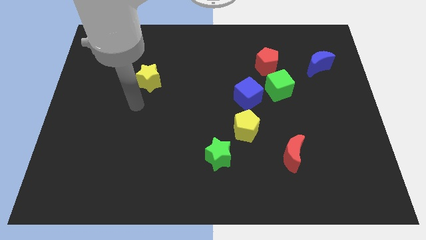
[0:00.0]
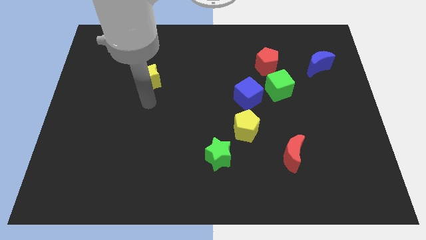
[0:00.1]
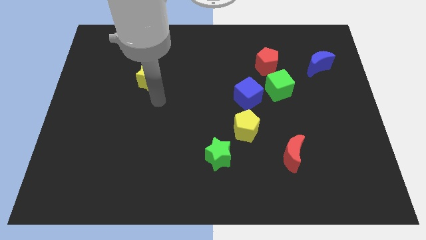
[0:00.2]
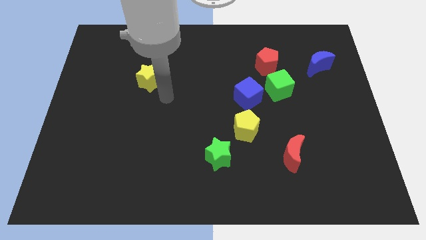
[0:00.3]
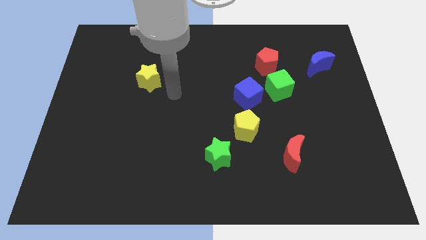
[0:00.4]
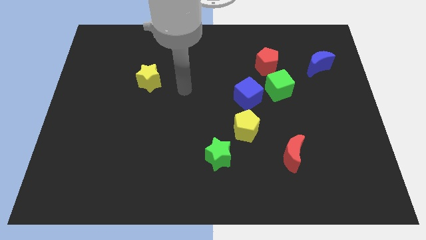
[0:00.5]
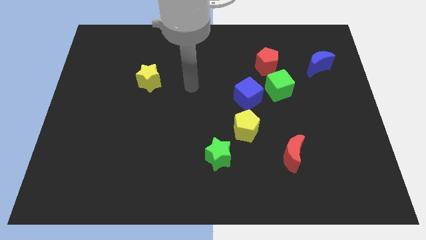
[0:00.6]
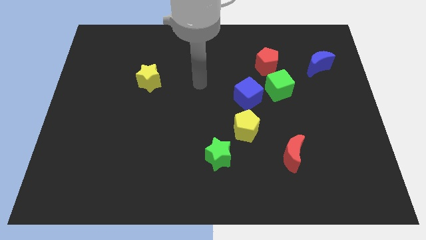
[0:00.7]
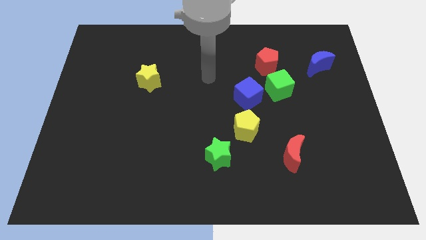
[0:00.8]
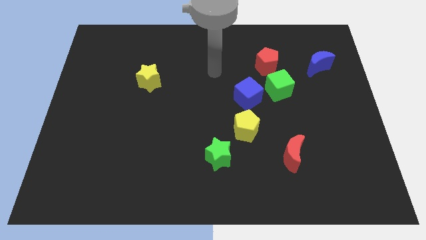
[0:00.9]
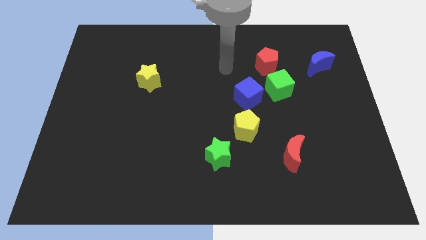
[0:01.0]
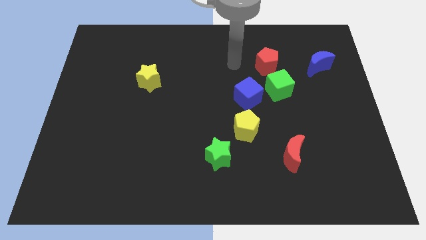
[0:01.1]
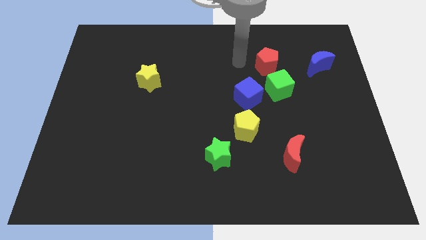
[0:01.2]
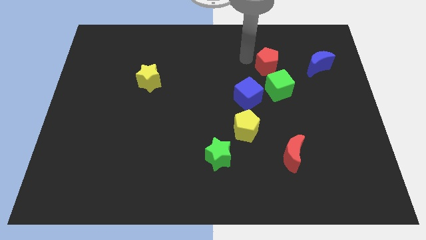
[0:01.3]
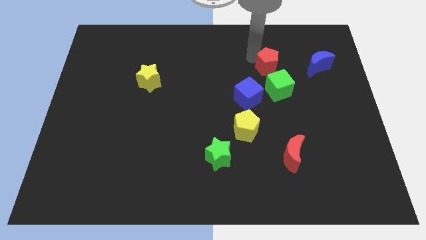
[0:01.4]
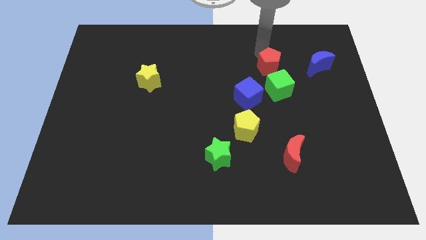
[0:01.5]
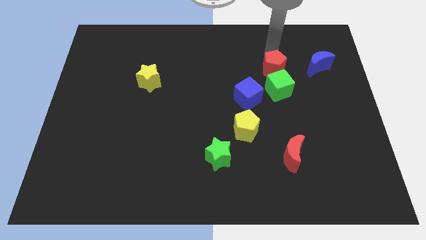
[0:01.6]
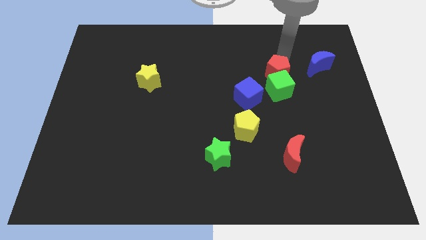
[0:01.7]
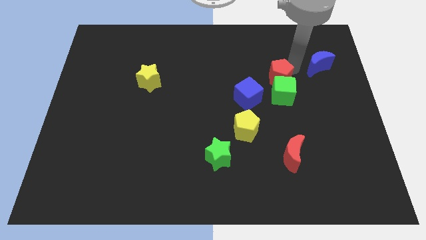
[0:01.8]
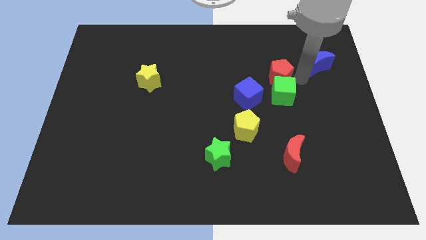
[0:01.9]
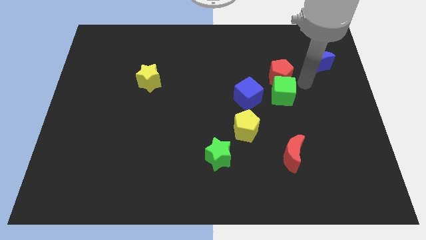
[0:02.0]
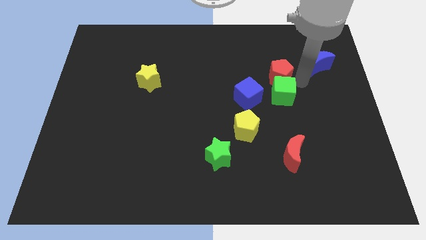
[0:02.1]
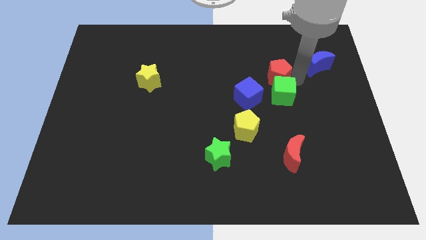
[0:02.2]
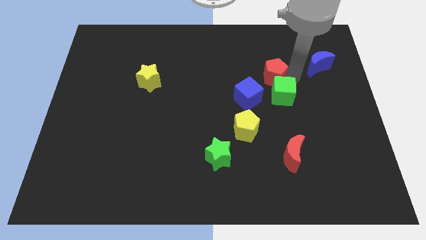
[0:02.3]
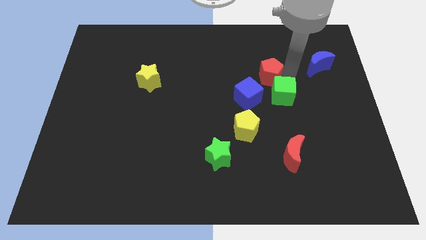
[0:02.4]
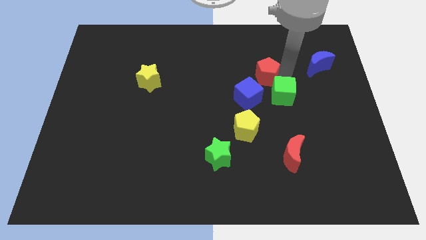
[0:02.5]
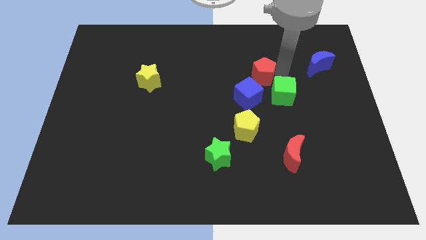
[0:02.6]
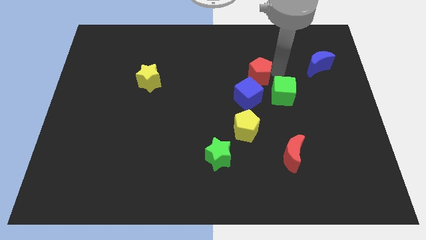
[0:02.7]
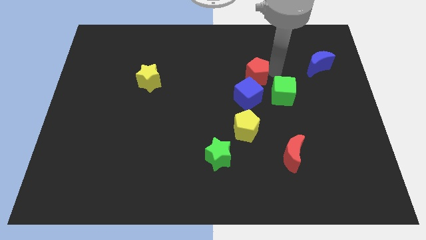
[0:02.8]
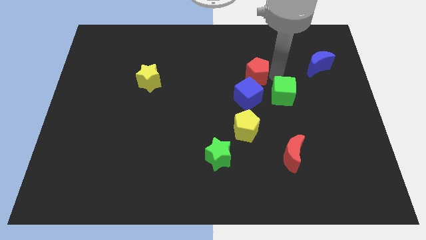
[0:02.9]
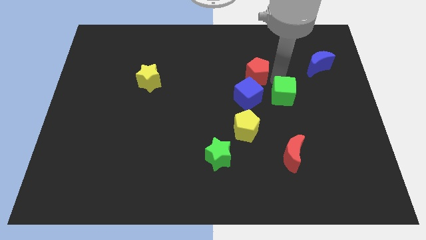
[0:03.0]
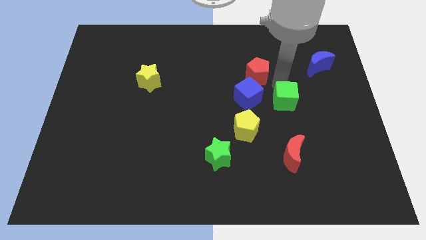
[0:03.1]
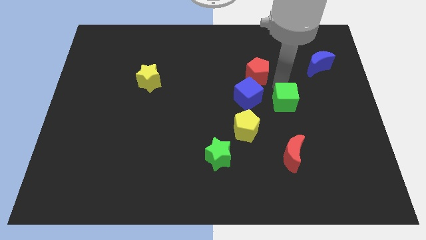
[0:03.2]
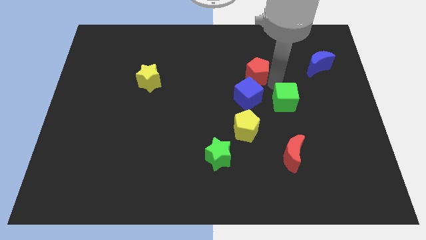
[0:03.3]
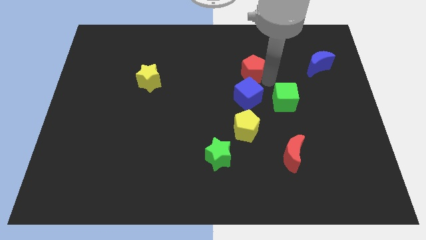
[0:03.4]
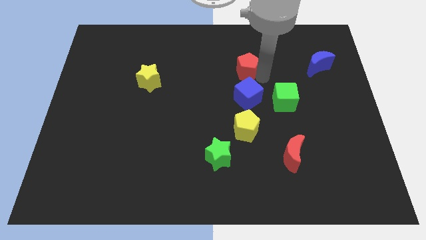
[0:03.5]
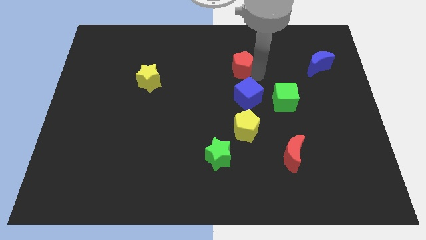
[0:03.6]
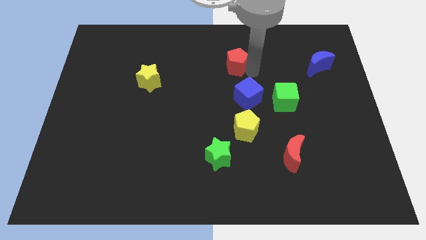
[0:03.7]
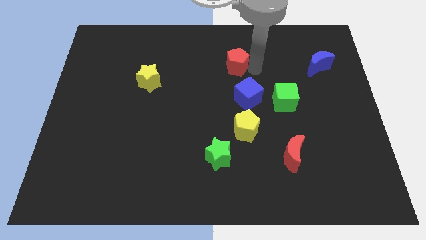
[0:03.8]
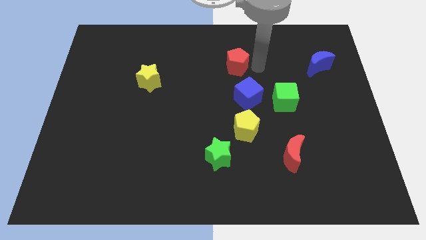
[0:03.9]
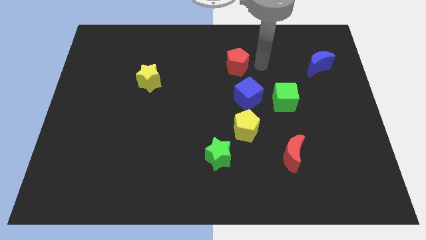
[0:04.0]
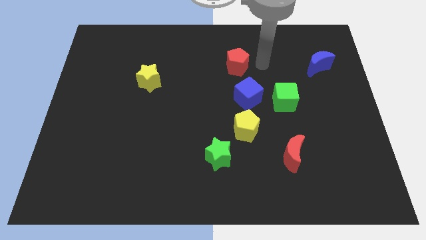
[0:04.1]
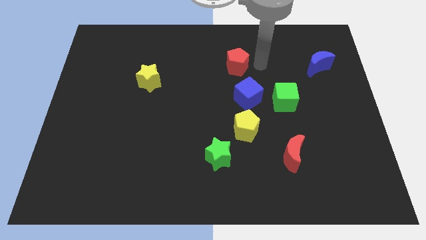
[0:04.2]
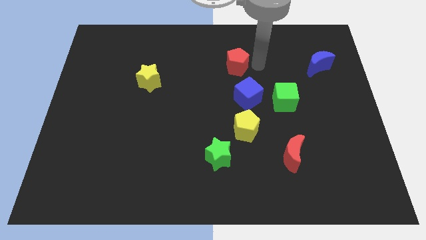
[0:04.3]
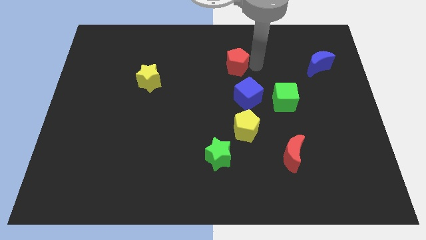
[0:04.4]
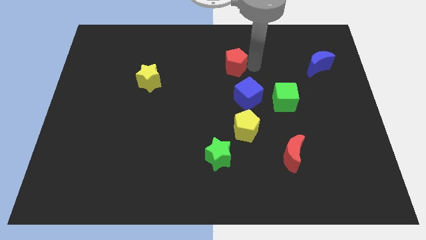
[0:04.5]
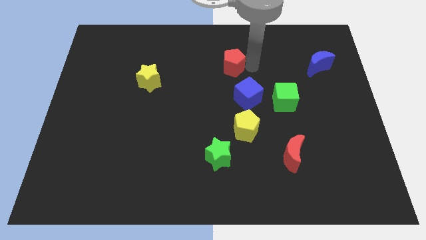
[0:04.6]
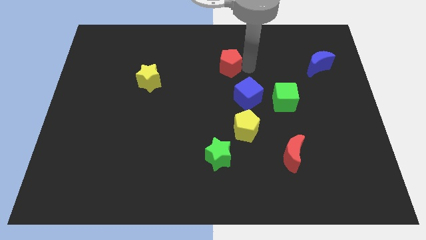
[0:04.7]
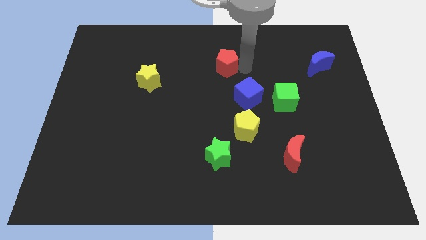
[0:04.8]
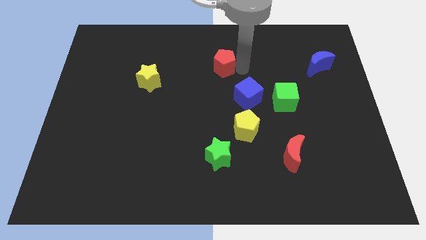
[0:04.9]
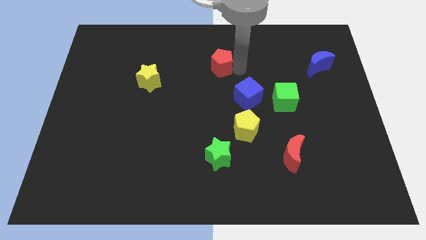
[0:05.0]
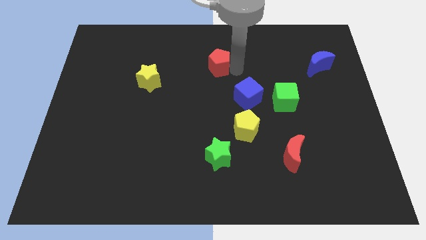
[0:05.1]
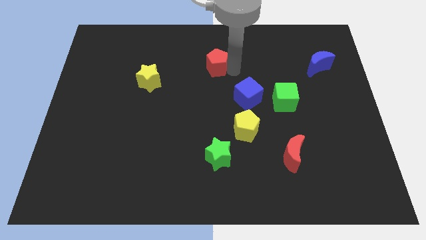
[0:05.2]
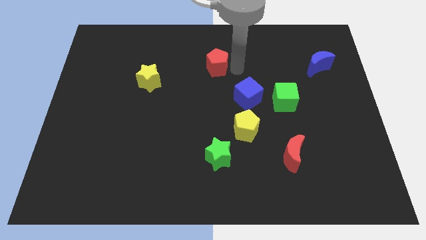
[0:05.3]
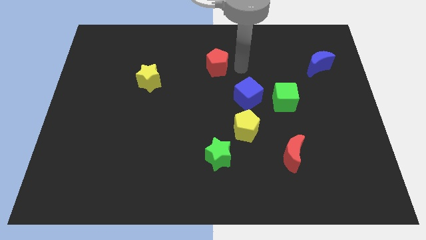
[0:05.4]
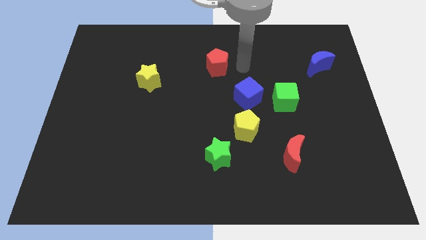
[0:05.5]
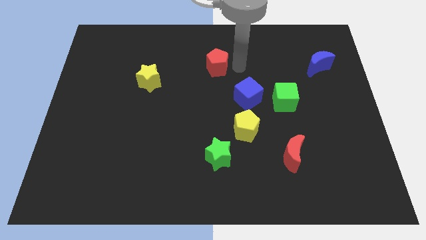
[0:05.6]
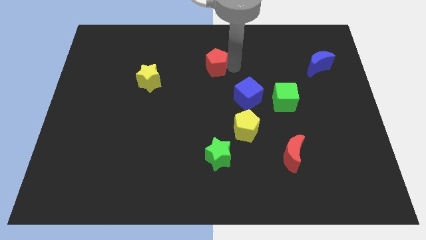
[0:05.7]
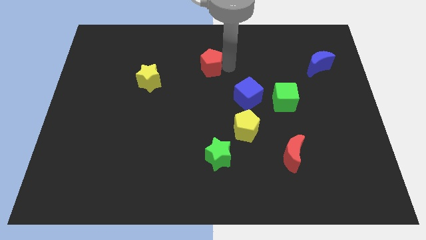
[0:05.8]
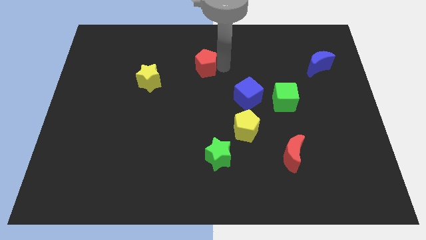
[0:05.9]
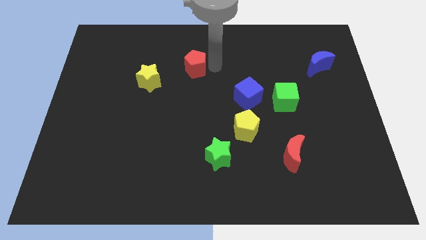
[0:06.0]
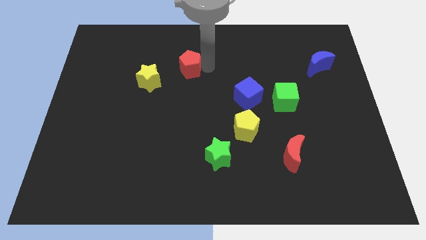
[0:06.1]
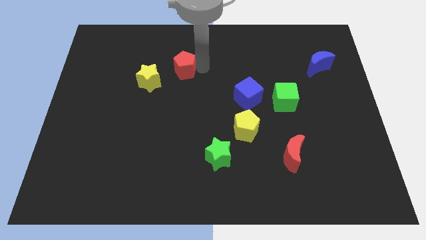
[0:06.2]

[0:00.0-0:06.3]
slide the red pentagon left

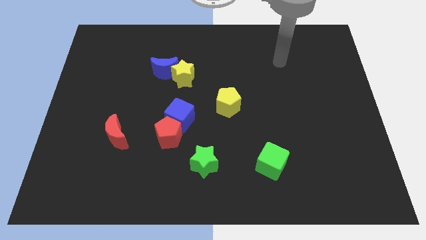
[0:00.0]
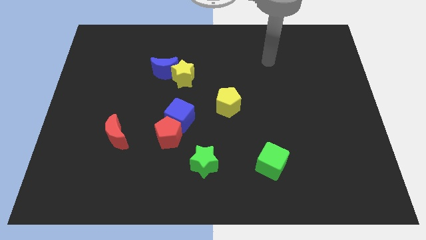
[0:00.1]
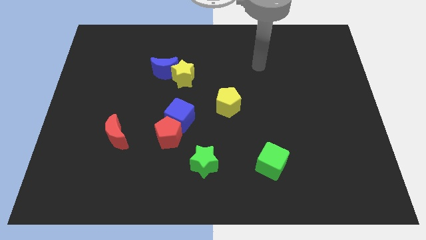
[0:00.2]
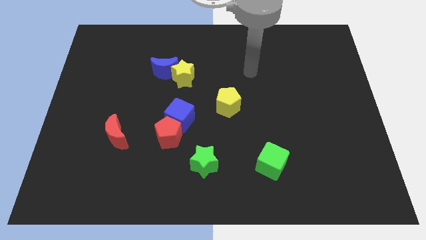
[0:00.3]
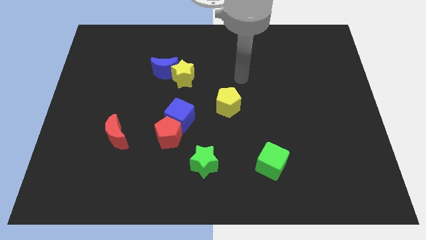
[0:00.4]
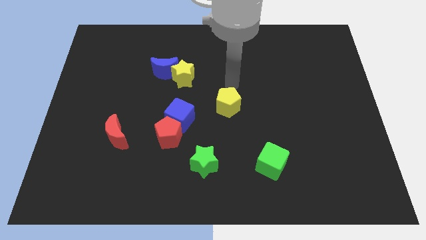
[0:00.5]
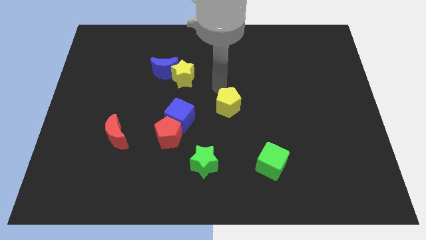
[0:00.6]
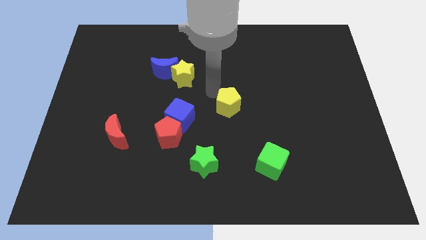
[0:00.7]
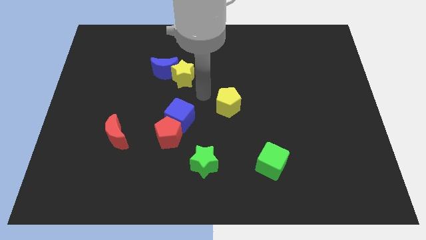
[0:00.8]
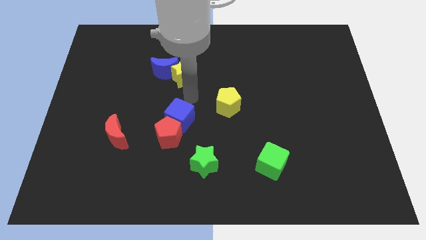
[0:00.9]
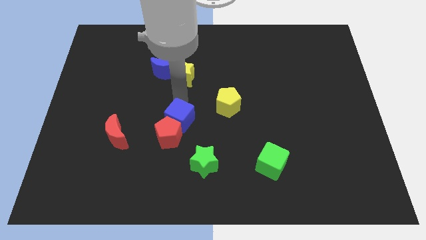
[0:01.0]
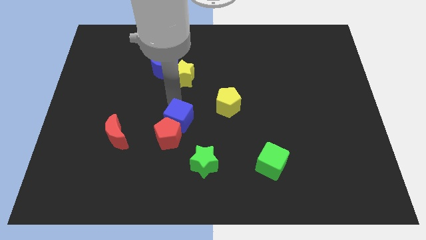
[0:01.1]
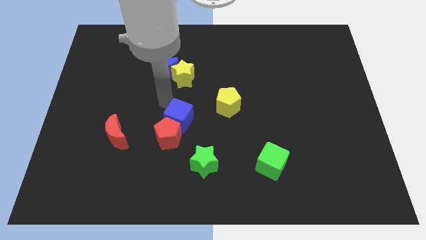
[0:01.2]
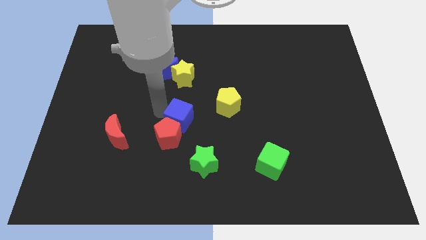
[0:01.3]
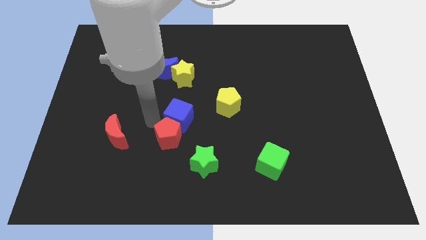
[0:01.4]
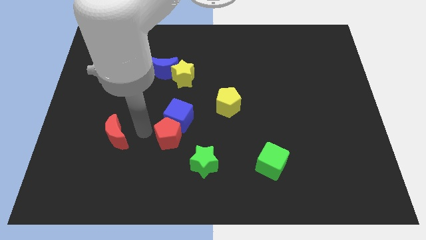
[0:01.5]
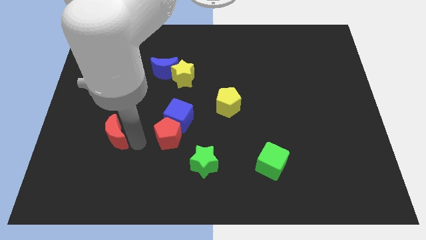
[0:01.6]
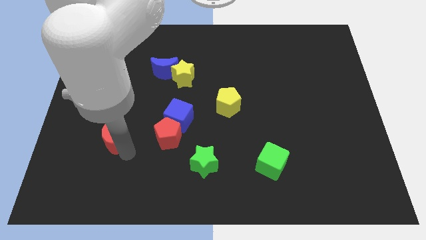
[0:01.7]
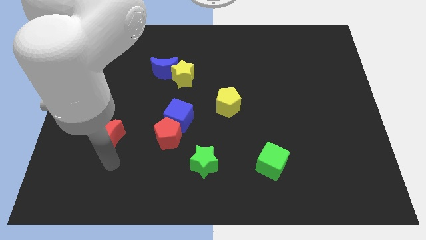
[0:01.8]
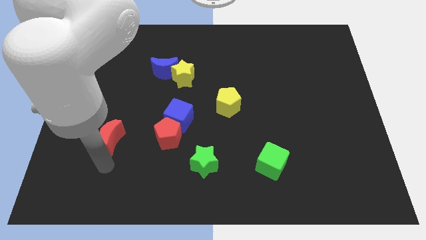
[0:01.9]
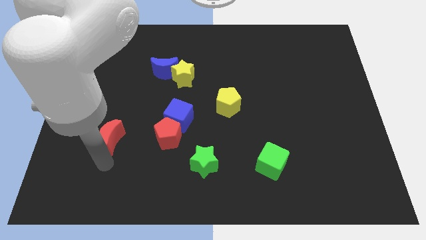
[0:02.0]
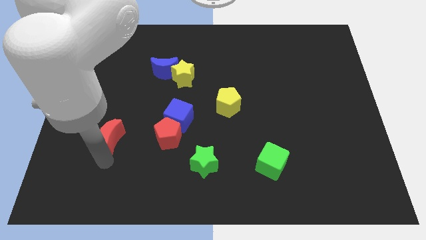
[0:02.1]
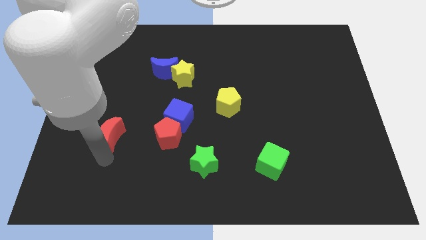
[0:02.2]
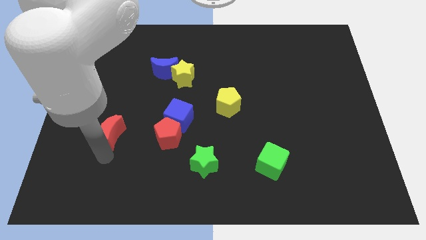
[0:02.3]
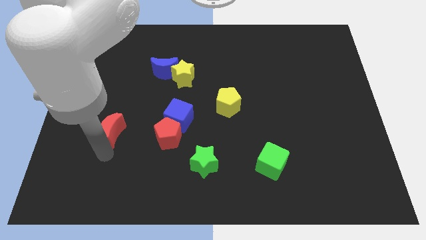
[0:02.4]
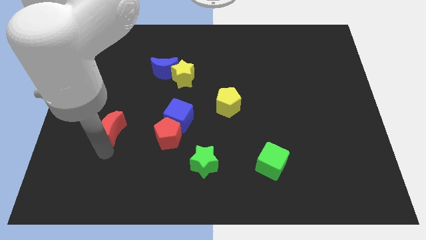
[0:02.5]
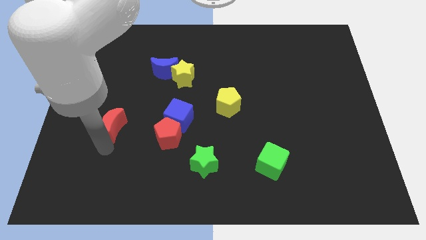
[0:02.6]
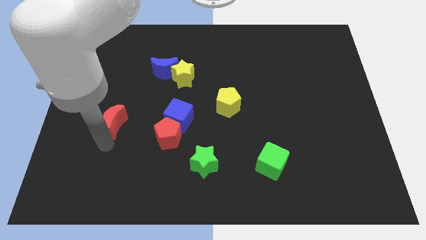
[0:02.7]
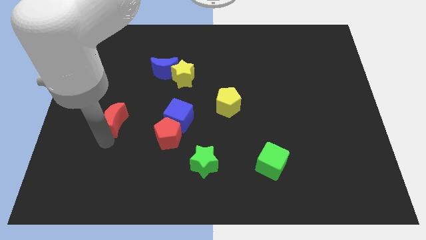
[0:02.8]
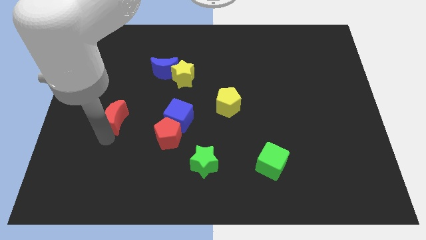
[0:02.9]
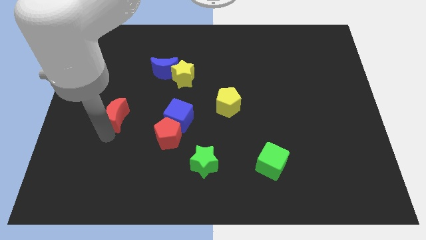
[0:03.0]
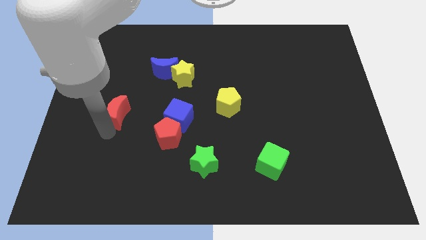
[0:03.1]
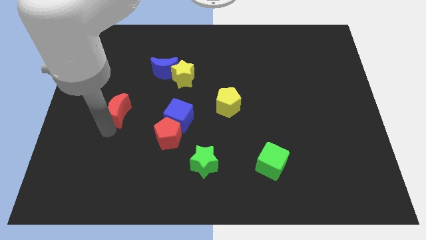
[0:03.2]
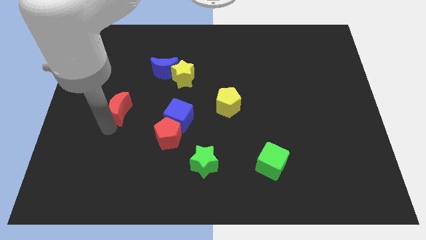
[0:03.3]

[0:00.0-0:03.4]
push the red moon a bit upwards
